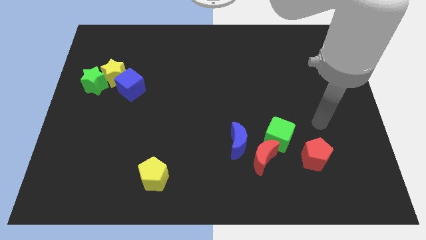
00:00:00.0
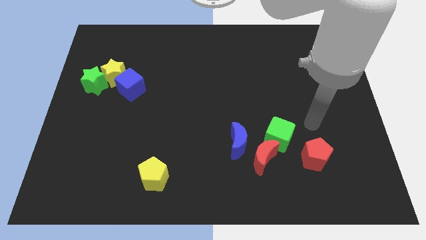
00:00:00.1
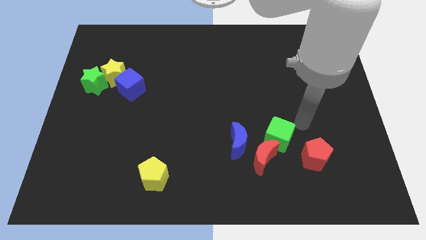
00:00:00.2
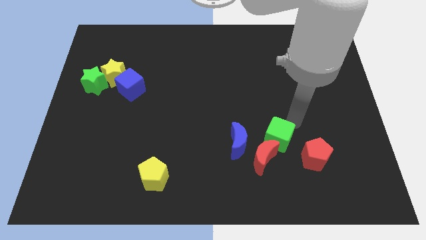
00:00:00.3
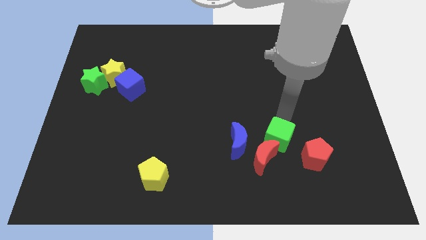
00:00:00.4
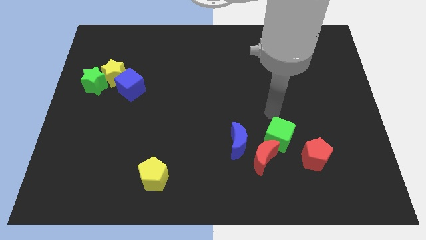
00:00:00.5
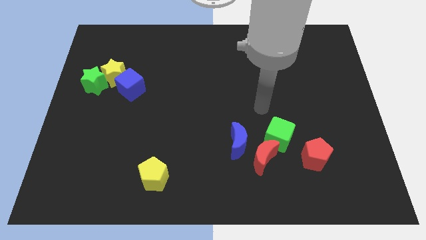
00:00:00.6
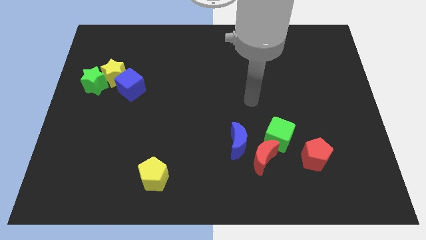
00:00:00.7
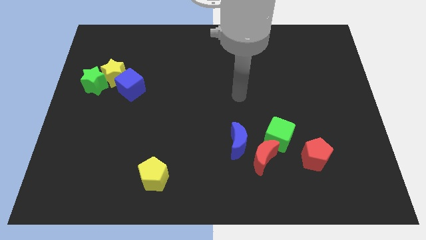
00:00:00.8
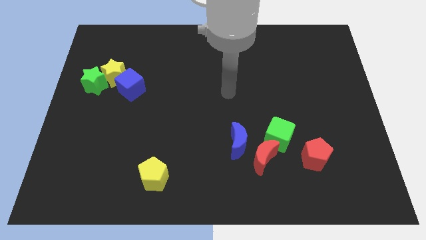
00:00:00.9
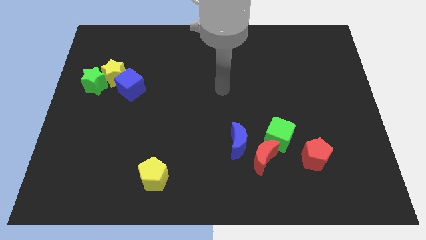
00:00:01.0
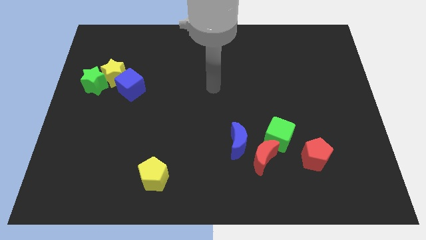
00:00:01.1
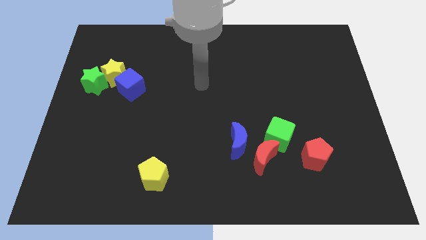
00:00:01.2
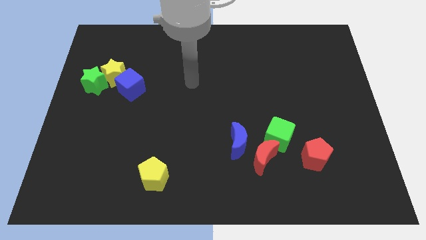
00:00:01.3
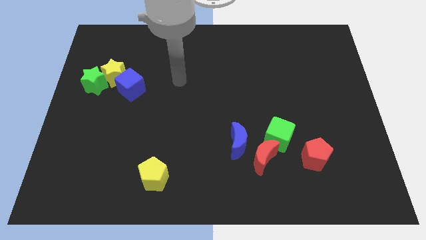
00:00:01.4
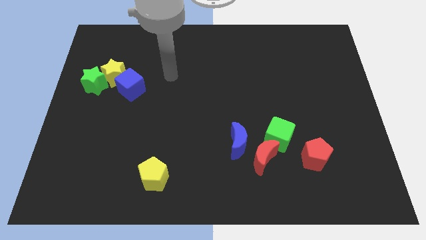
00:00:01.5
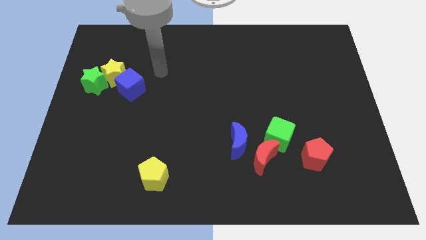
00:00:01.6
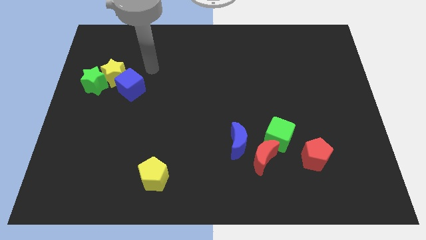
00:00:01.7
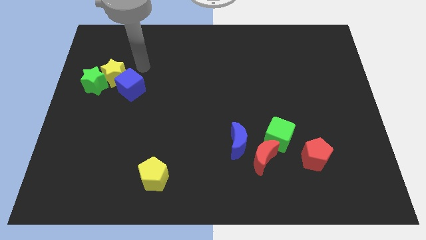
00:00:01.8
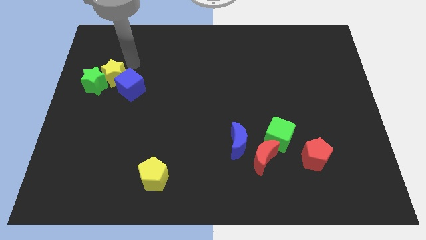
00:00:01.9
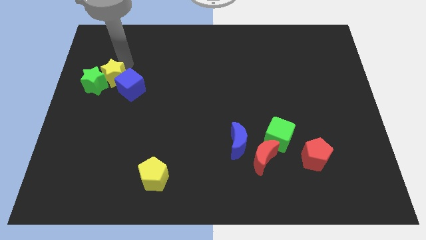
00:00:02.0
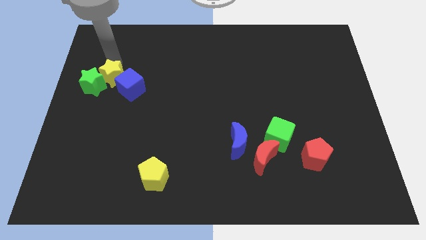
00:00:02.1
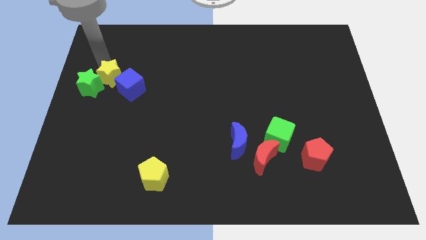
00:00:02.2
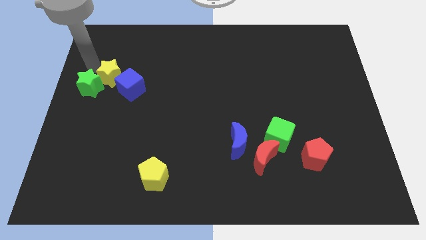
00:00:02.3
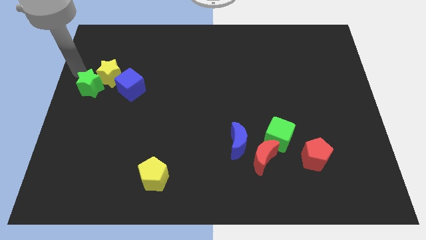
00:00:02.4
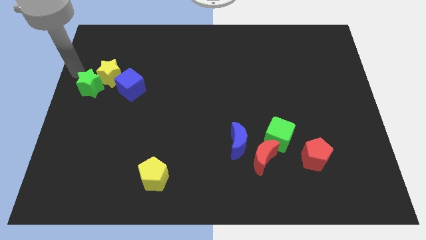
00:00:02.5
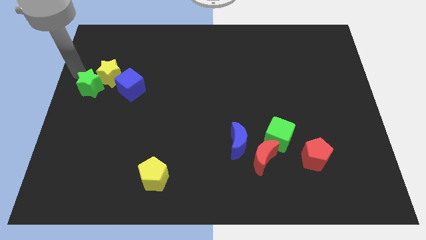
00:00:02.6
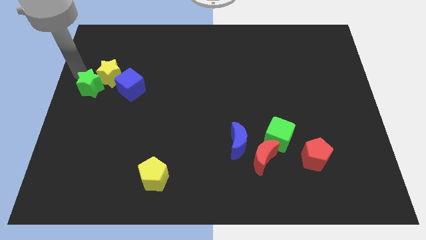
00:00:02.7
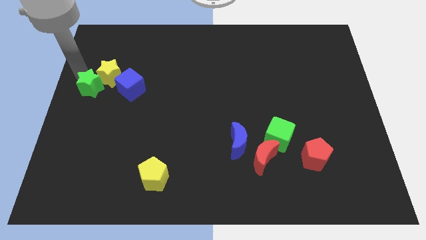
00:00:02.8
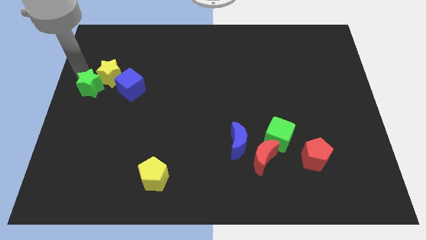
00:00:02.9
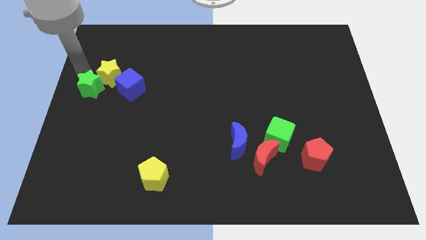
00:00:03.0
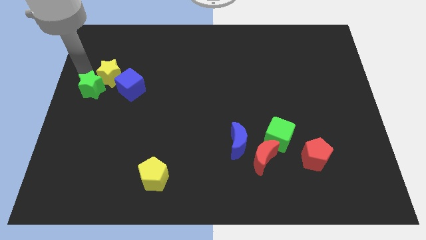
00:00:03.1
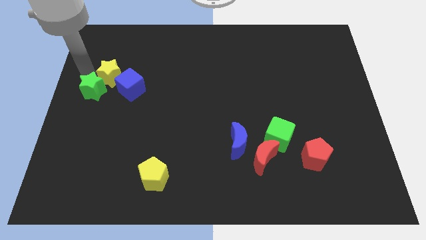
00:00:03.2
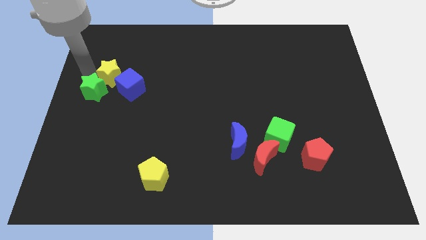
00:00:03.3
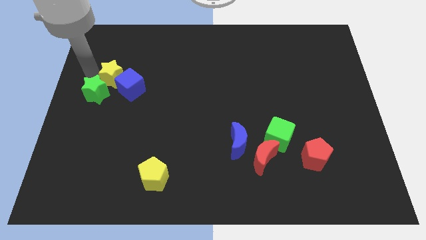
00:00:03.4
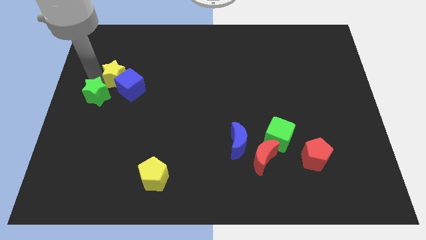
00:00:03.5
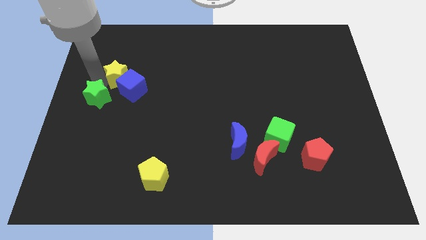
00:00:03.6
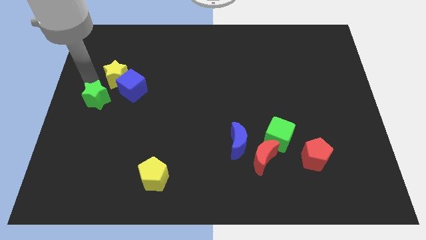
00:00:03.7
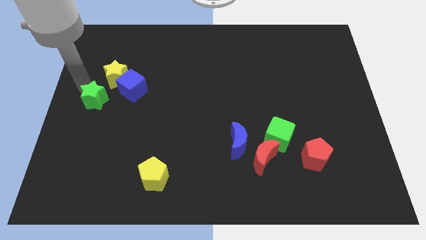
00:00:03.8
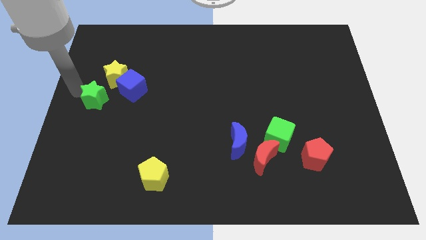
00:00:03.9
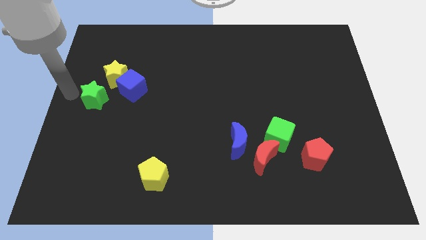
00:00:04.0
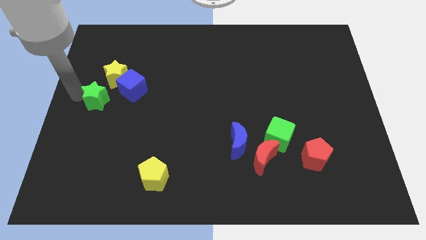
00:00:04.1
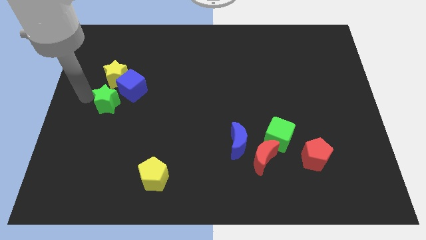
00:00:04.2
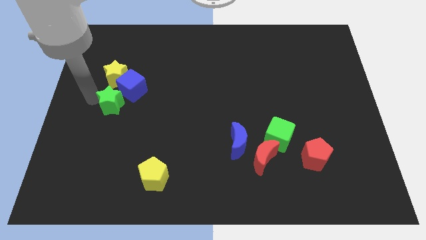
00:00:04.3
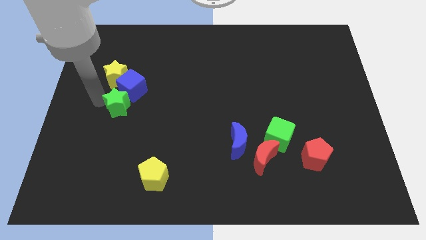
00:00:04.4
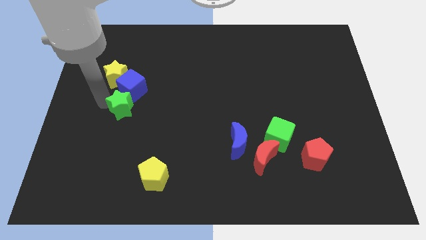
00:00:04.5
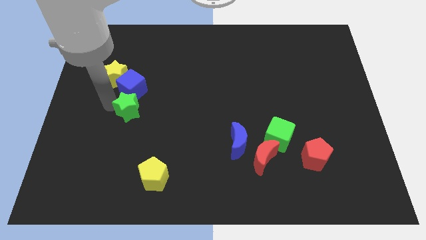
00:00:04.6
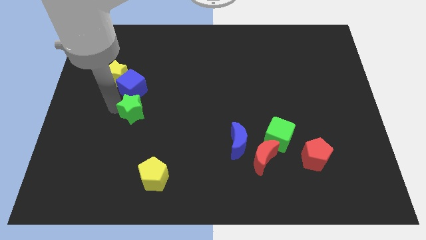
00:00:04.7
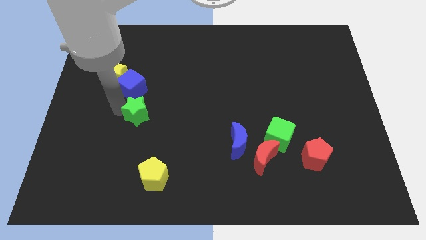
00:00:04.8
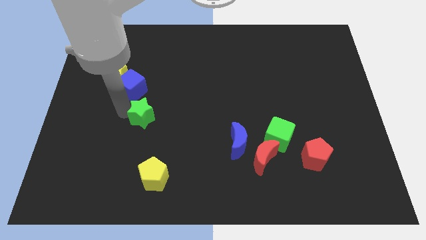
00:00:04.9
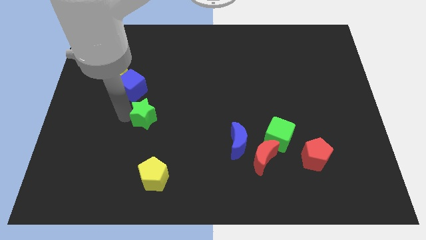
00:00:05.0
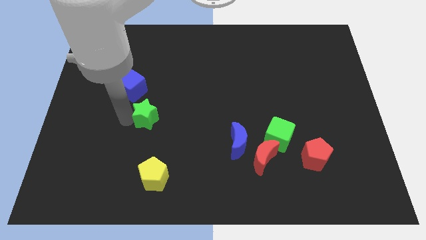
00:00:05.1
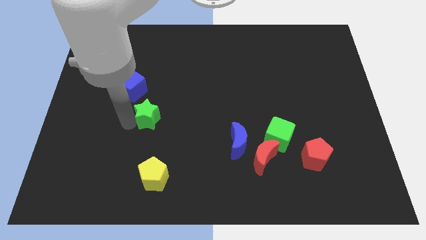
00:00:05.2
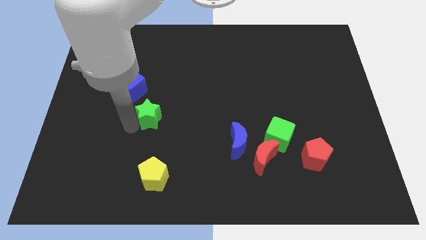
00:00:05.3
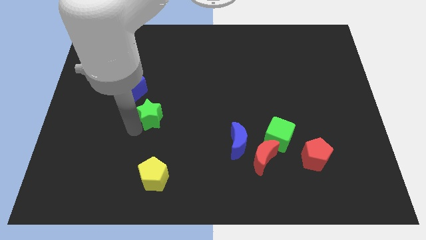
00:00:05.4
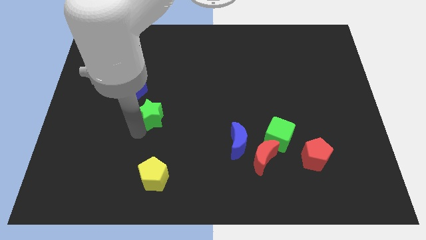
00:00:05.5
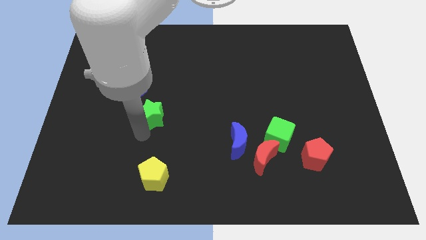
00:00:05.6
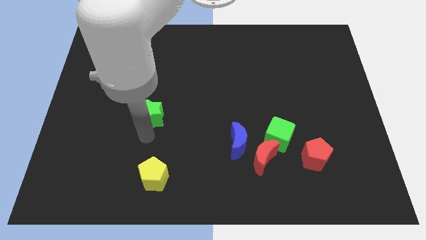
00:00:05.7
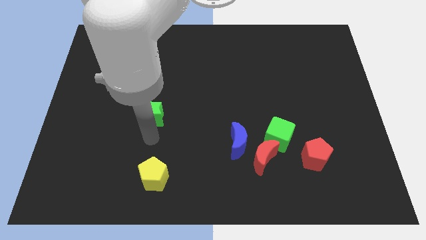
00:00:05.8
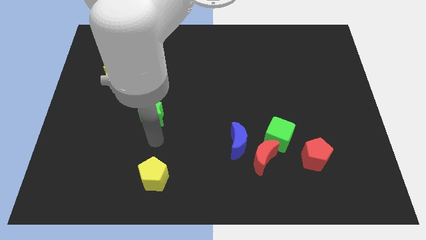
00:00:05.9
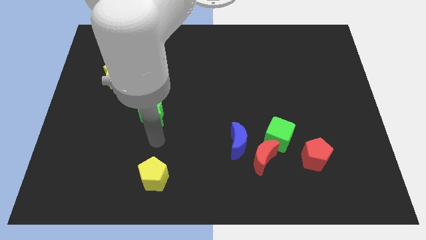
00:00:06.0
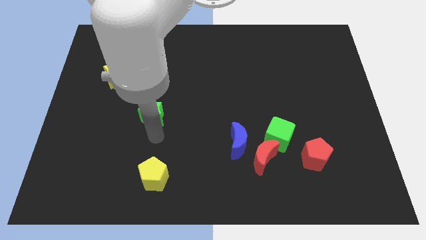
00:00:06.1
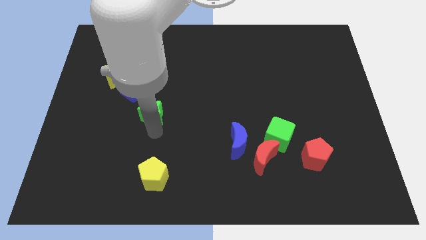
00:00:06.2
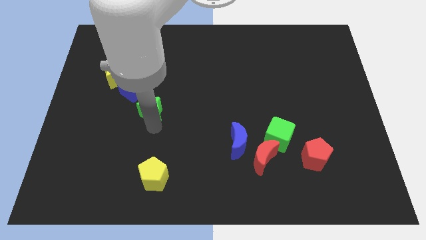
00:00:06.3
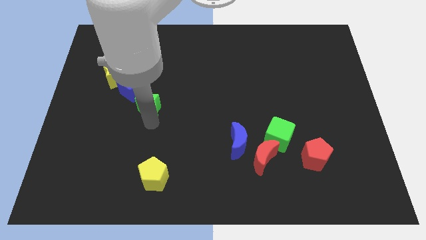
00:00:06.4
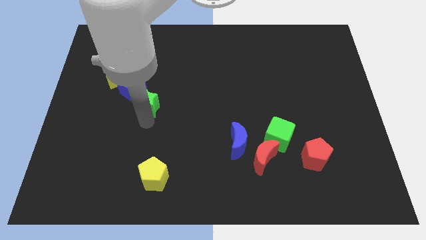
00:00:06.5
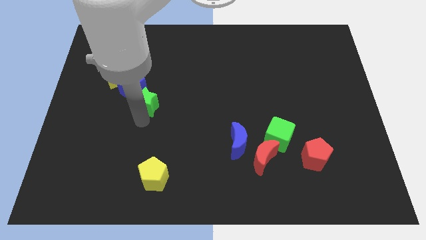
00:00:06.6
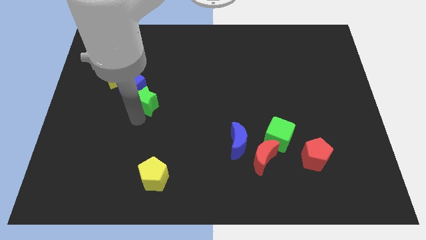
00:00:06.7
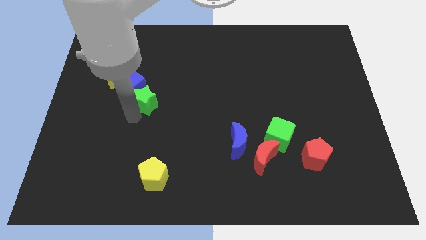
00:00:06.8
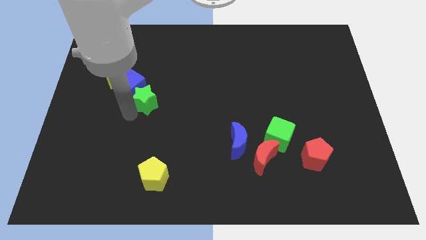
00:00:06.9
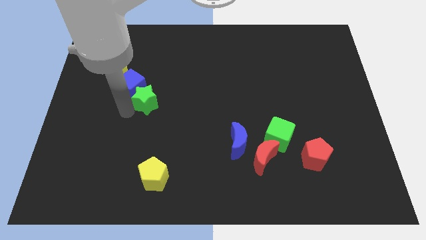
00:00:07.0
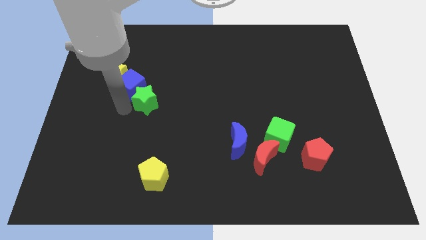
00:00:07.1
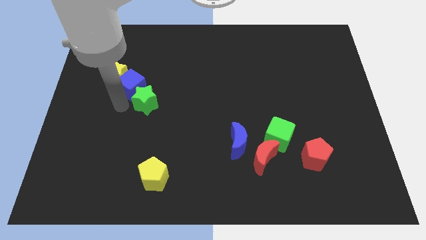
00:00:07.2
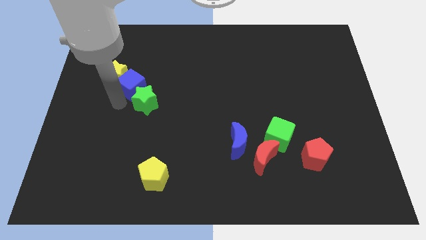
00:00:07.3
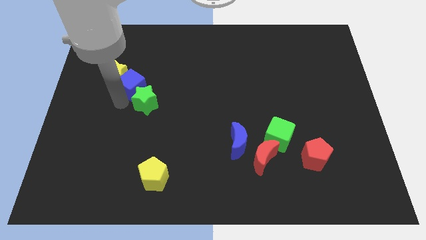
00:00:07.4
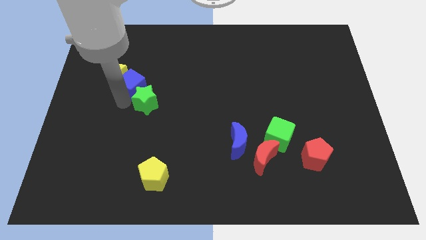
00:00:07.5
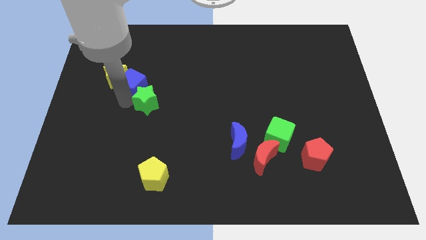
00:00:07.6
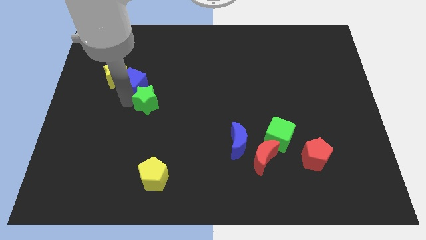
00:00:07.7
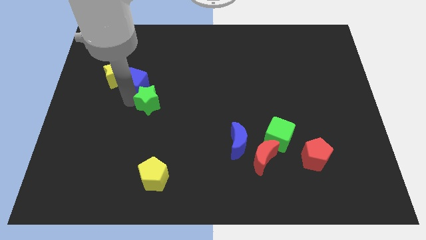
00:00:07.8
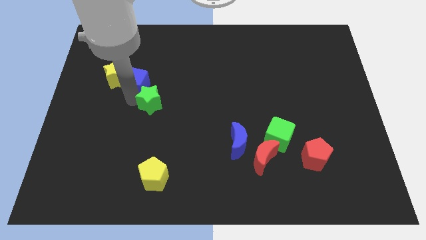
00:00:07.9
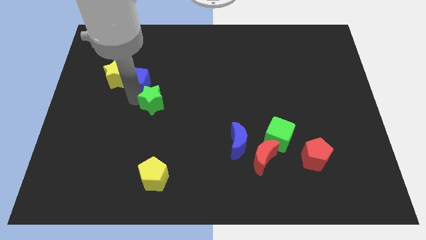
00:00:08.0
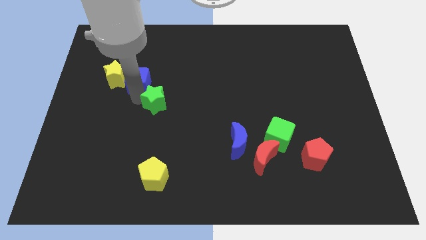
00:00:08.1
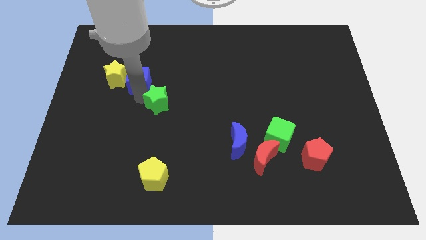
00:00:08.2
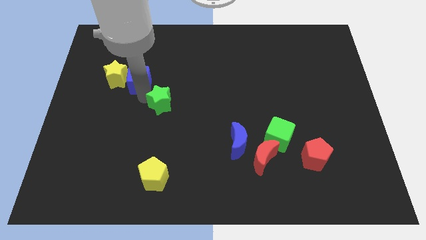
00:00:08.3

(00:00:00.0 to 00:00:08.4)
move the green star to the center of the board
